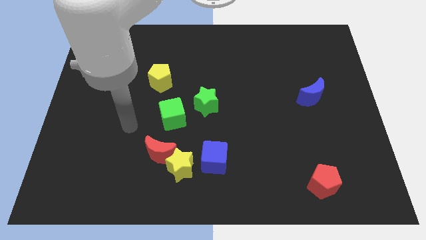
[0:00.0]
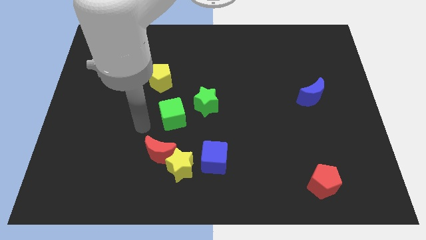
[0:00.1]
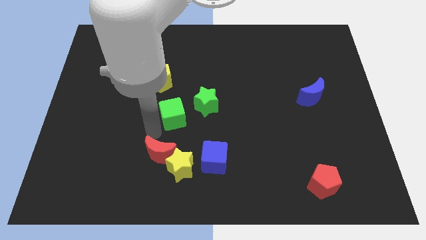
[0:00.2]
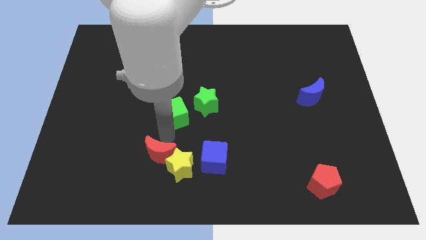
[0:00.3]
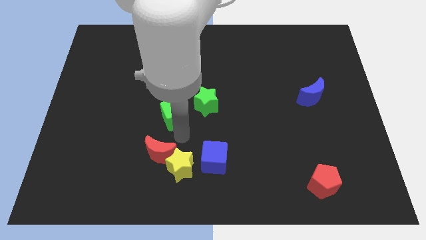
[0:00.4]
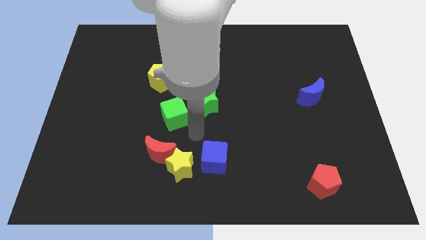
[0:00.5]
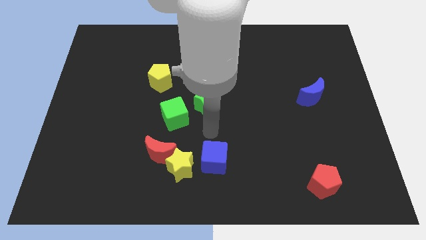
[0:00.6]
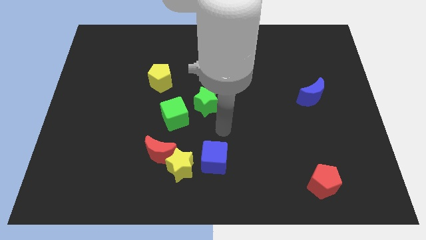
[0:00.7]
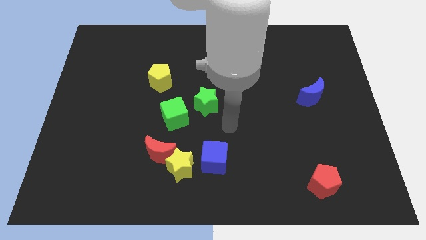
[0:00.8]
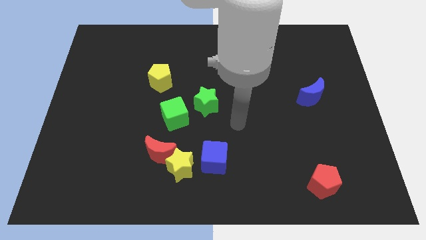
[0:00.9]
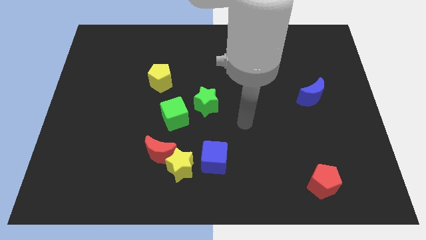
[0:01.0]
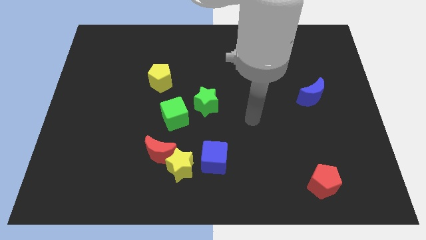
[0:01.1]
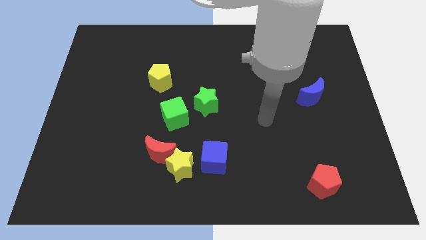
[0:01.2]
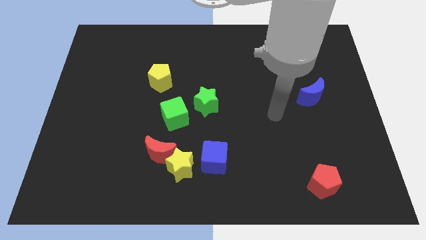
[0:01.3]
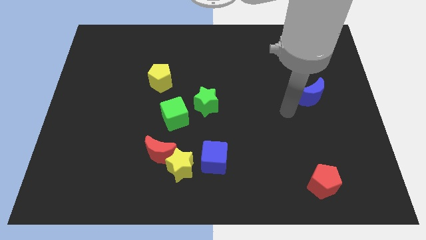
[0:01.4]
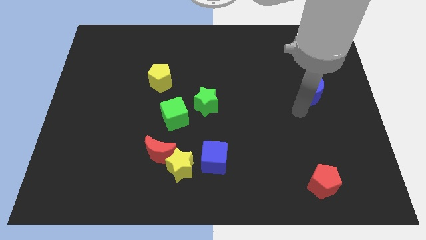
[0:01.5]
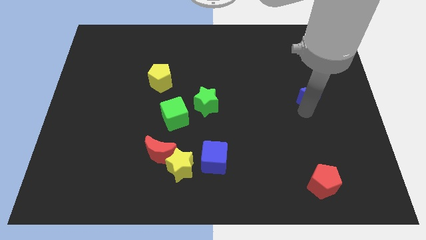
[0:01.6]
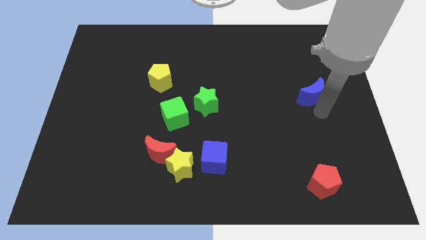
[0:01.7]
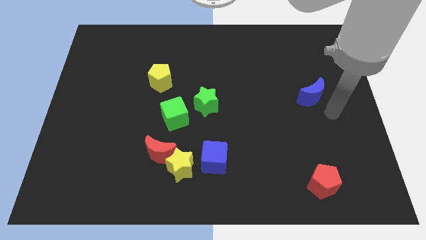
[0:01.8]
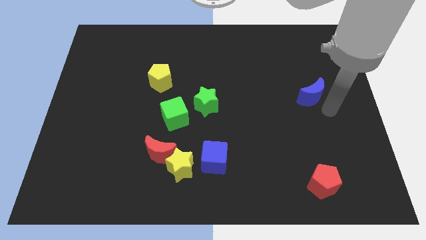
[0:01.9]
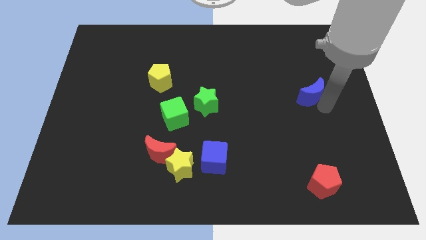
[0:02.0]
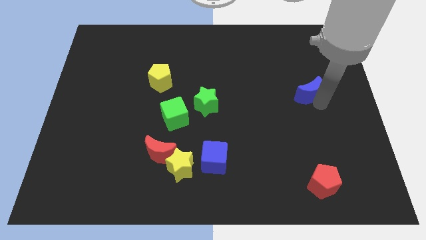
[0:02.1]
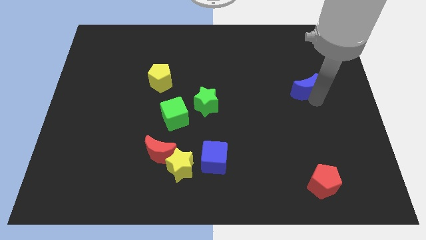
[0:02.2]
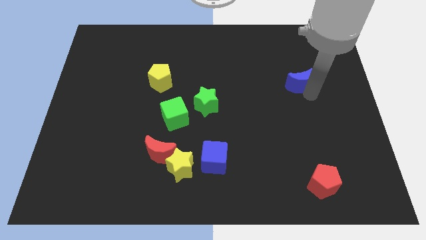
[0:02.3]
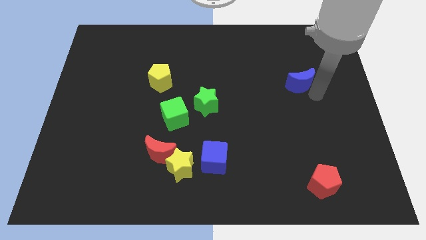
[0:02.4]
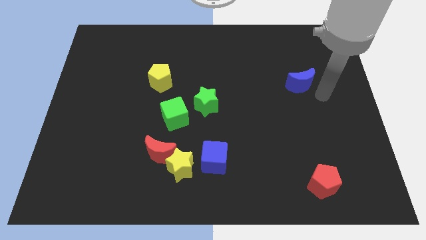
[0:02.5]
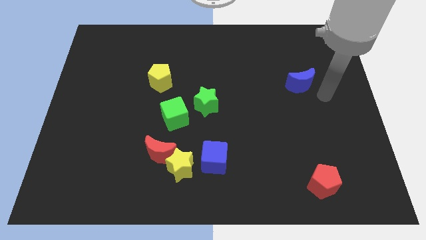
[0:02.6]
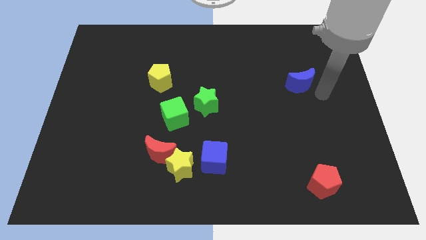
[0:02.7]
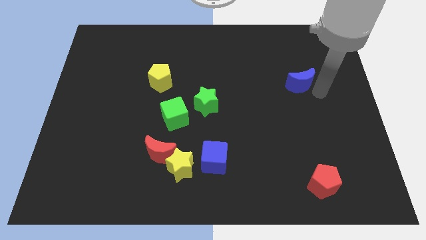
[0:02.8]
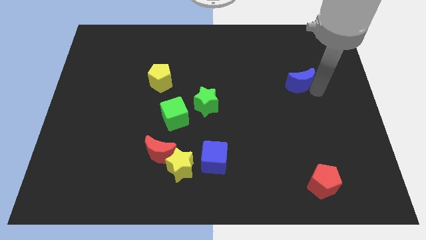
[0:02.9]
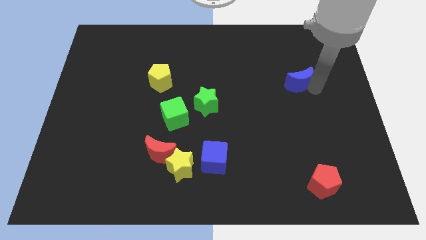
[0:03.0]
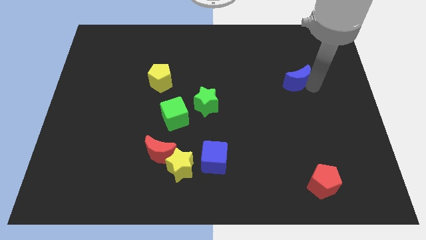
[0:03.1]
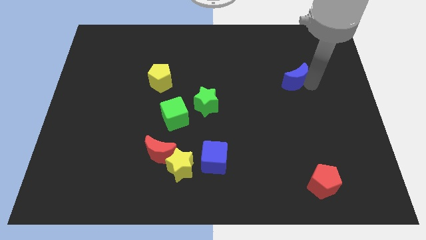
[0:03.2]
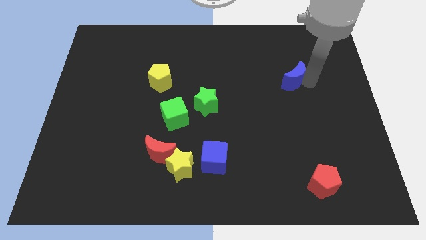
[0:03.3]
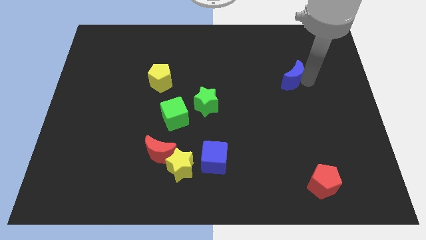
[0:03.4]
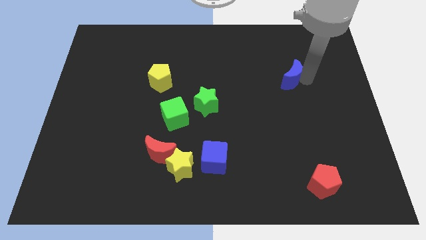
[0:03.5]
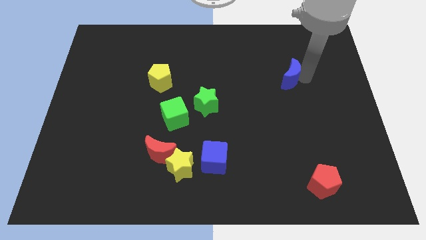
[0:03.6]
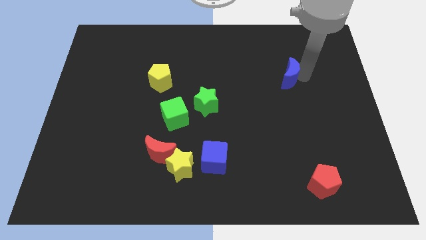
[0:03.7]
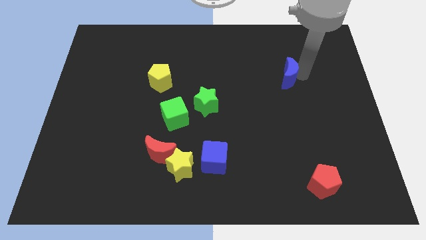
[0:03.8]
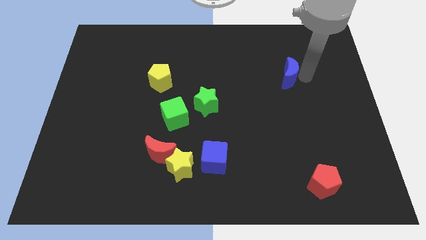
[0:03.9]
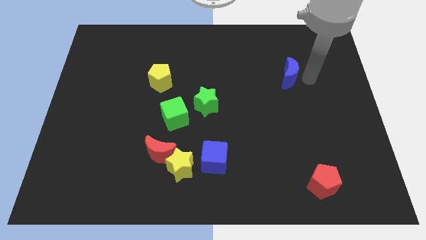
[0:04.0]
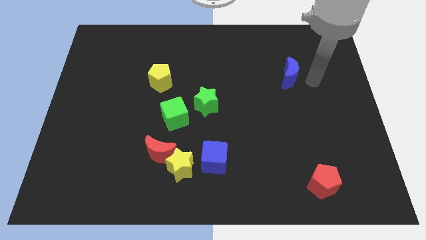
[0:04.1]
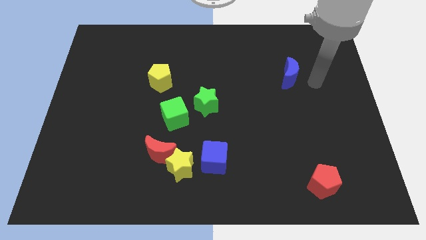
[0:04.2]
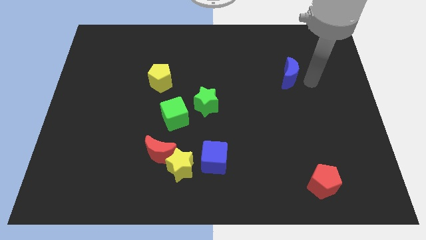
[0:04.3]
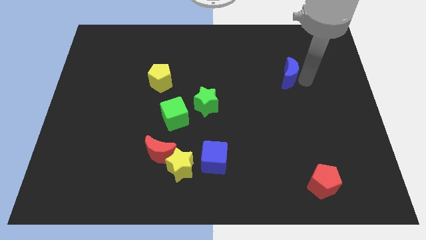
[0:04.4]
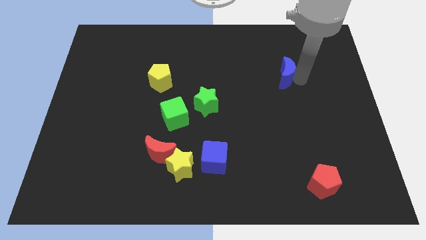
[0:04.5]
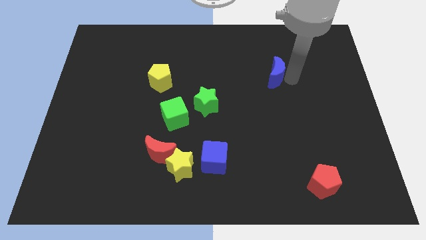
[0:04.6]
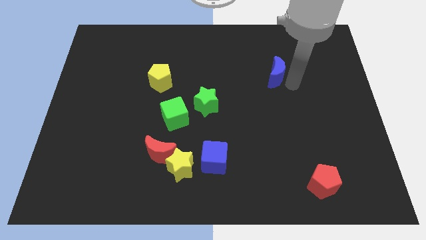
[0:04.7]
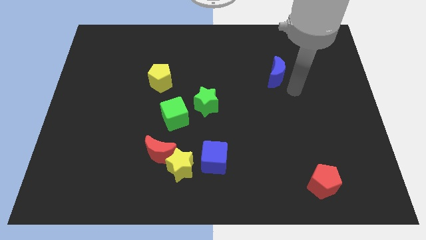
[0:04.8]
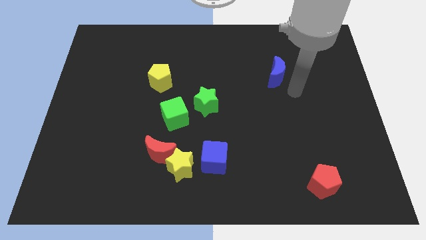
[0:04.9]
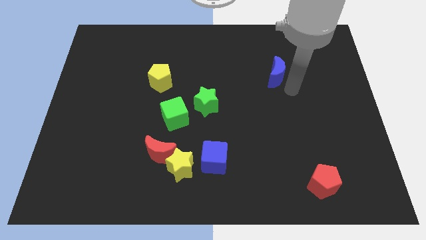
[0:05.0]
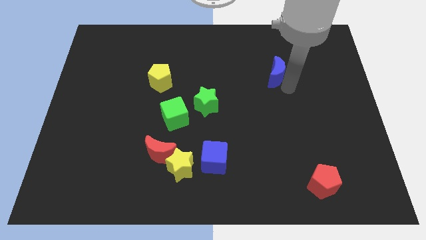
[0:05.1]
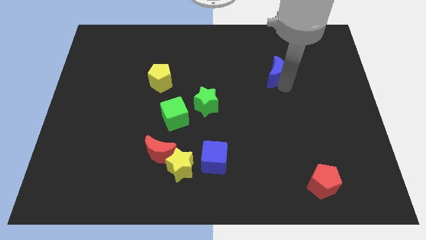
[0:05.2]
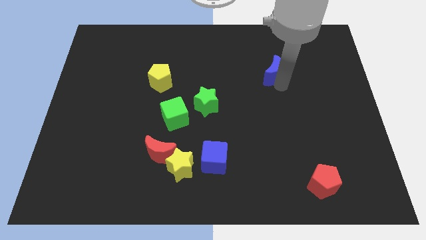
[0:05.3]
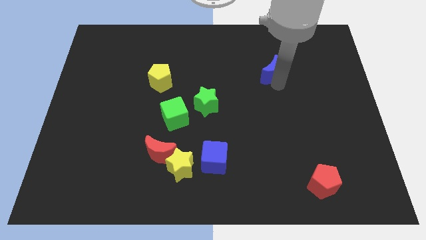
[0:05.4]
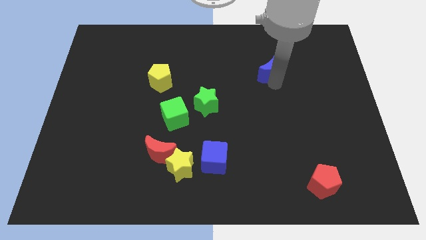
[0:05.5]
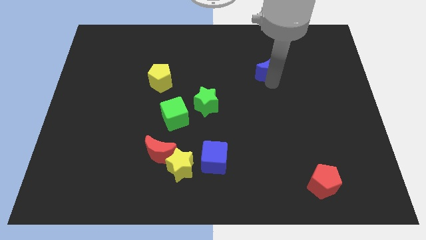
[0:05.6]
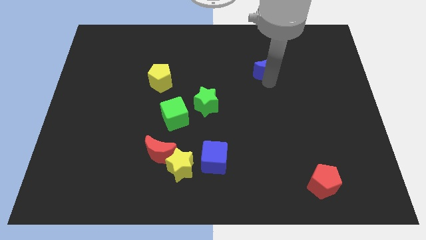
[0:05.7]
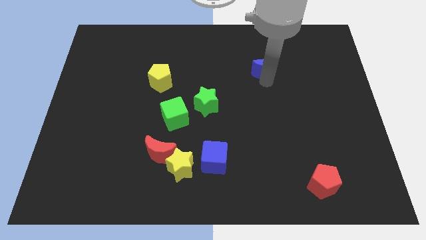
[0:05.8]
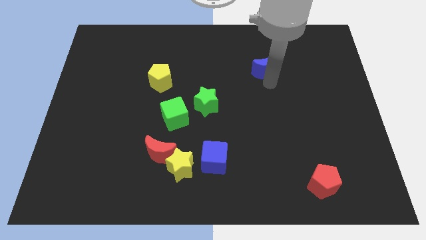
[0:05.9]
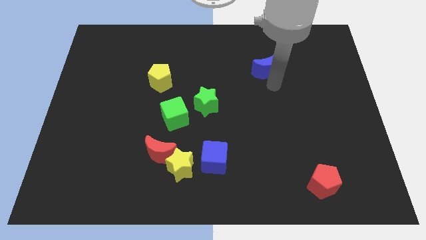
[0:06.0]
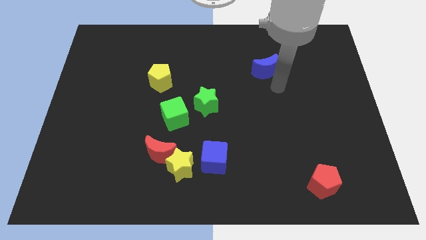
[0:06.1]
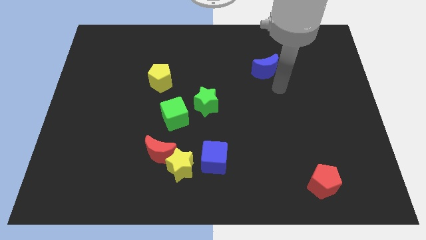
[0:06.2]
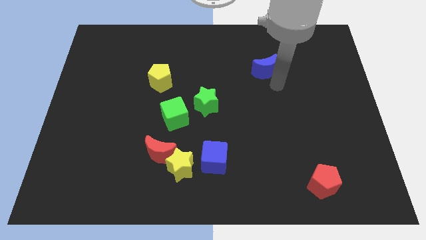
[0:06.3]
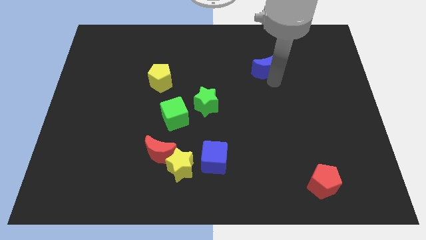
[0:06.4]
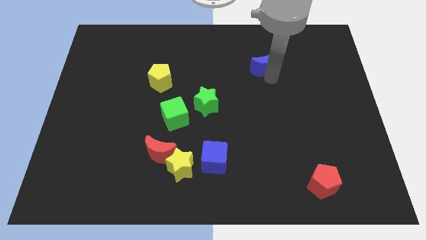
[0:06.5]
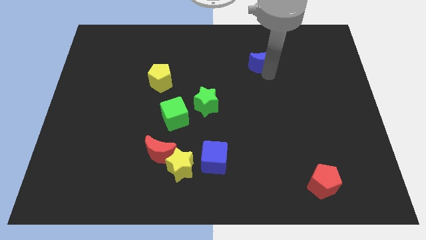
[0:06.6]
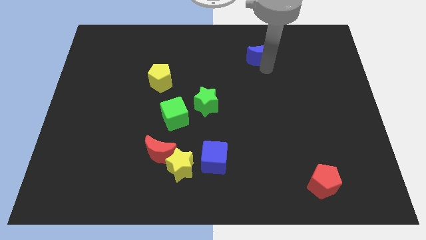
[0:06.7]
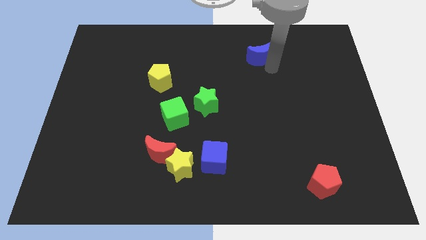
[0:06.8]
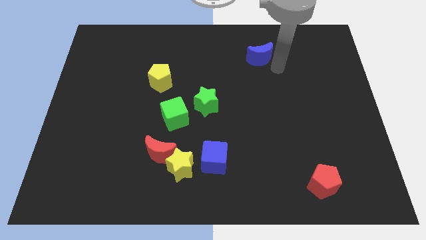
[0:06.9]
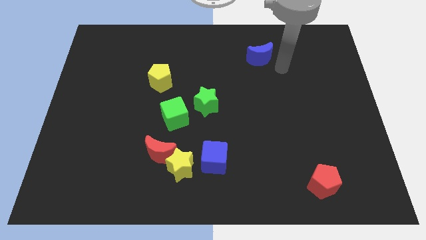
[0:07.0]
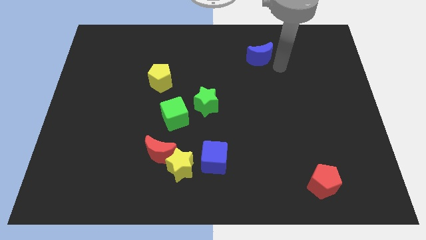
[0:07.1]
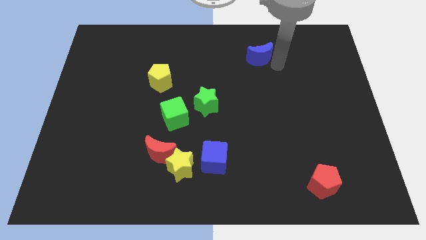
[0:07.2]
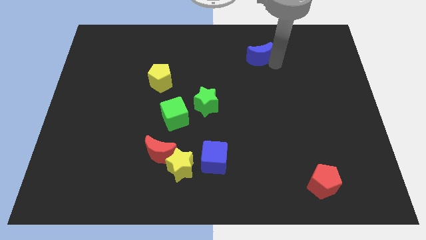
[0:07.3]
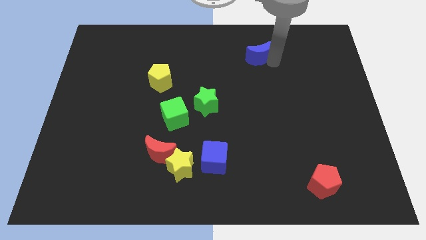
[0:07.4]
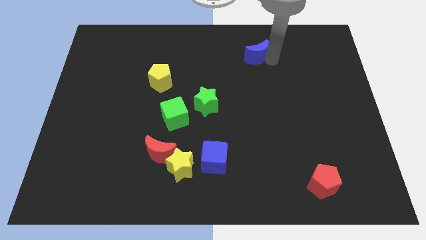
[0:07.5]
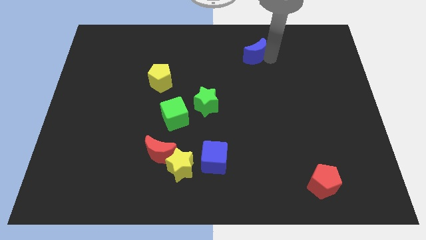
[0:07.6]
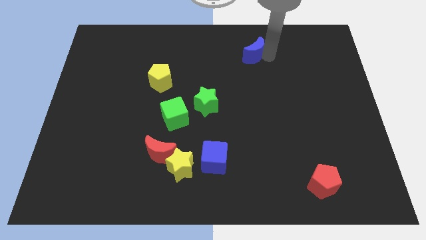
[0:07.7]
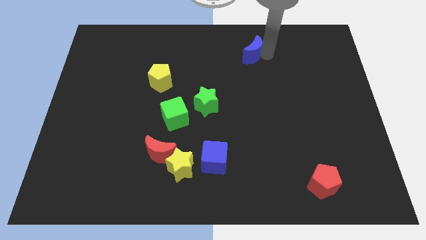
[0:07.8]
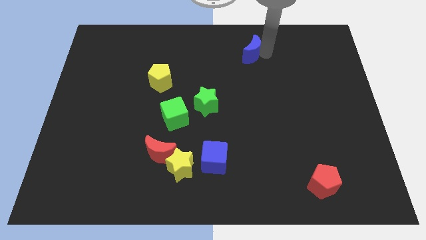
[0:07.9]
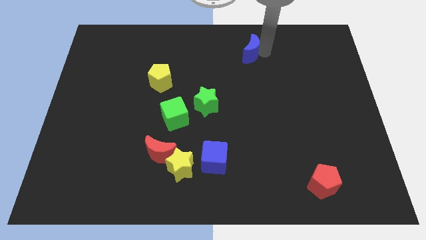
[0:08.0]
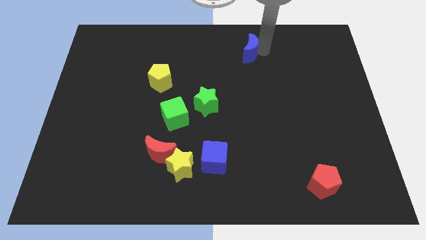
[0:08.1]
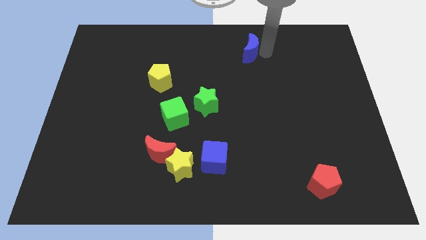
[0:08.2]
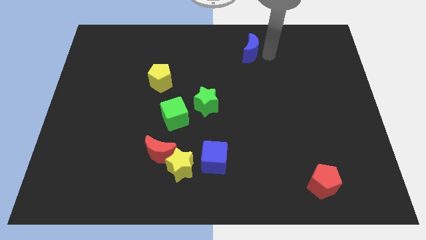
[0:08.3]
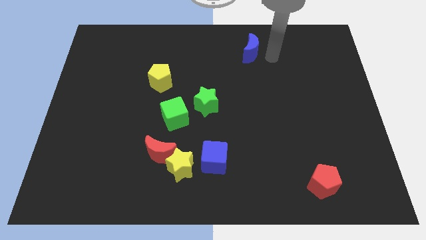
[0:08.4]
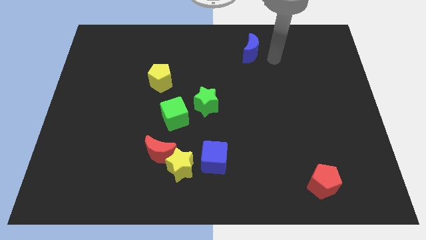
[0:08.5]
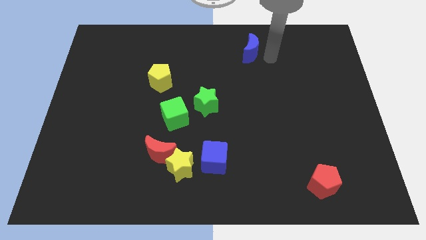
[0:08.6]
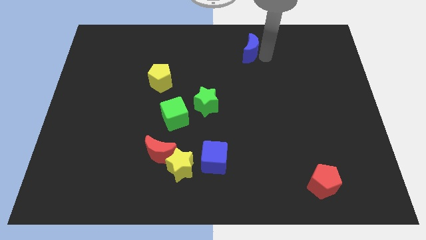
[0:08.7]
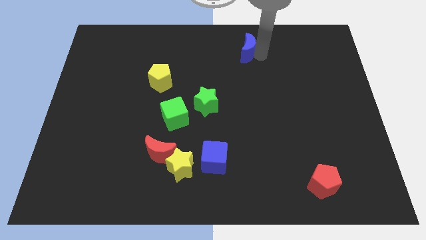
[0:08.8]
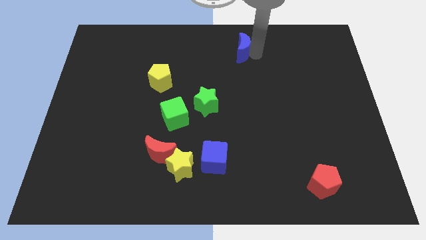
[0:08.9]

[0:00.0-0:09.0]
move the blue moon to the top side
